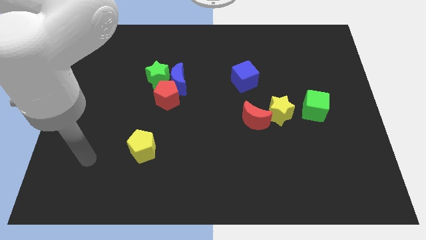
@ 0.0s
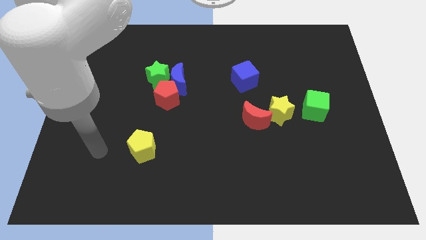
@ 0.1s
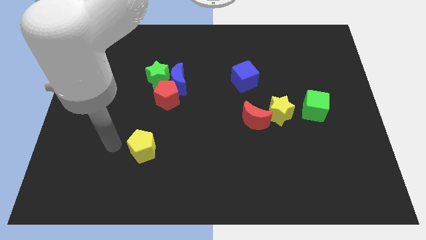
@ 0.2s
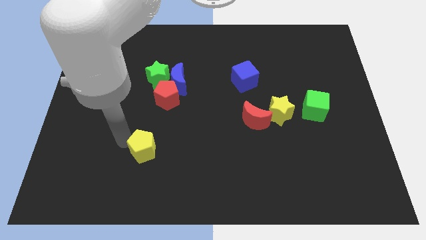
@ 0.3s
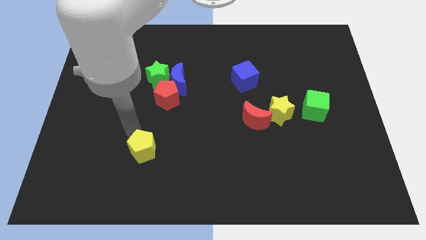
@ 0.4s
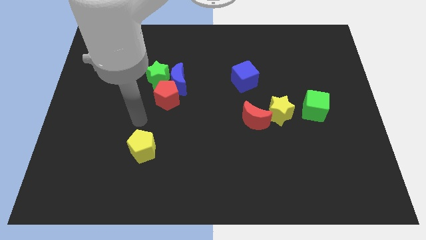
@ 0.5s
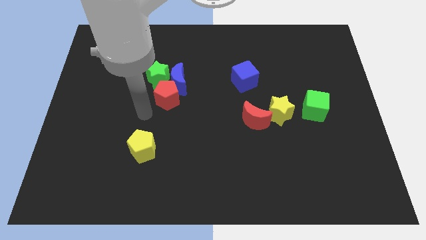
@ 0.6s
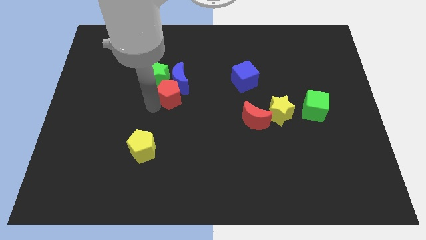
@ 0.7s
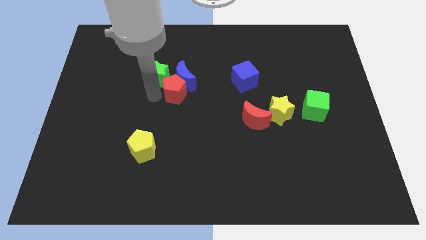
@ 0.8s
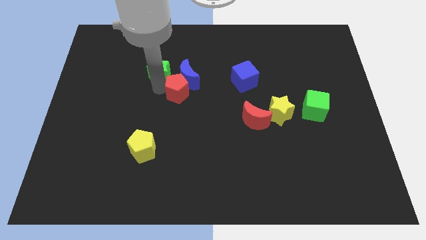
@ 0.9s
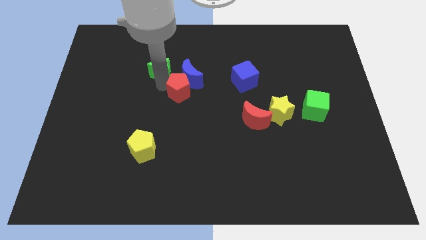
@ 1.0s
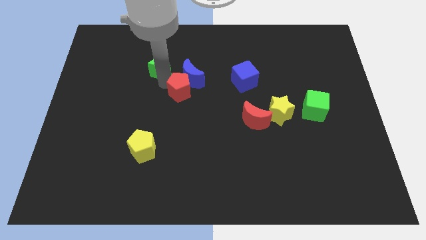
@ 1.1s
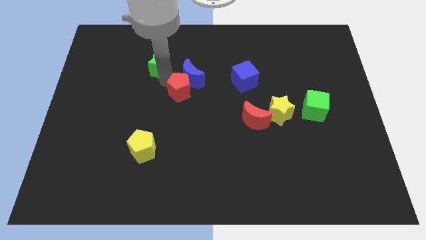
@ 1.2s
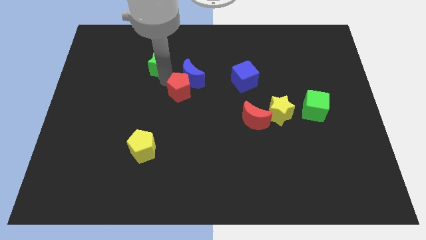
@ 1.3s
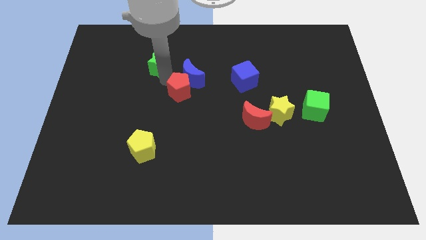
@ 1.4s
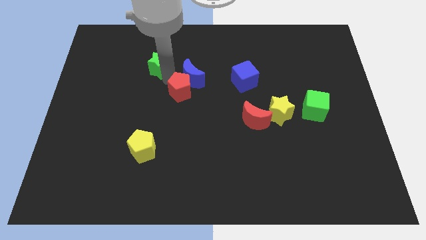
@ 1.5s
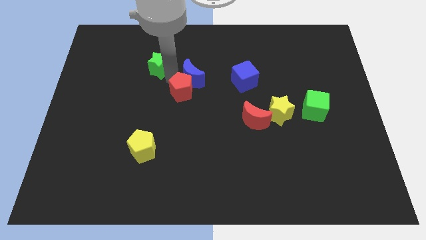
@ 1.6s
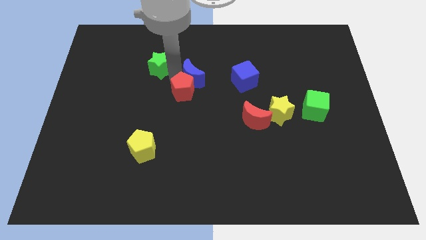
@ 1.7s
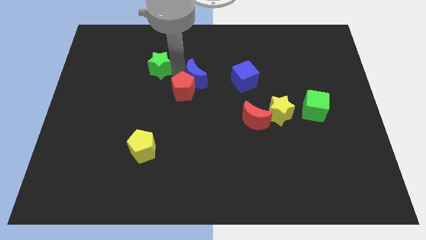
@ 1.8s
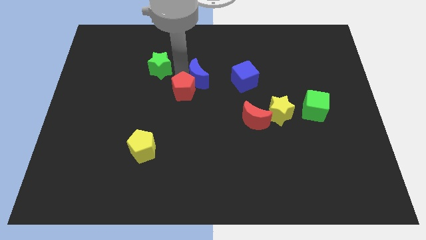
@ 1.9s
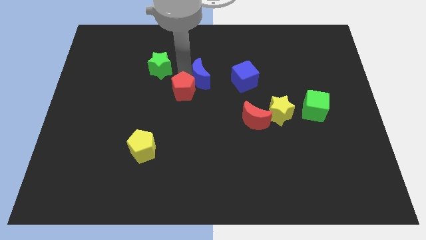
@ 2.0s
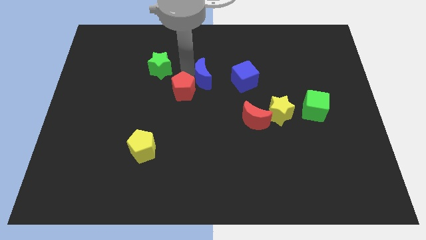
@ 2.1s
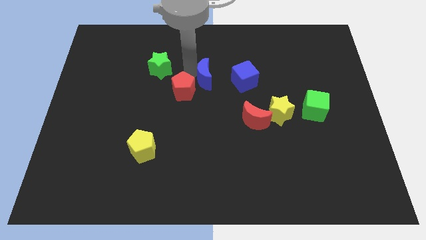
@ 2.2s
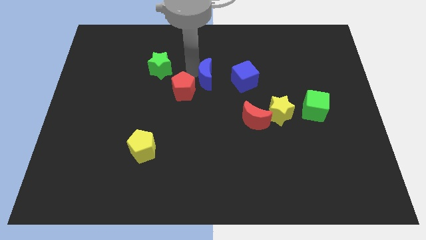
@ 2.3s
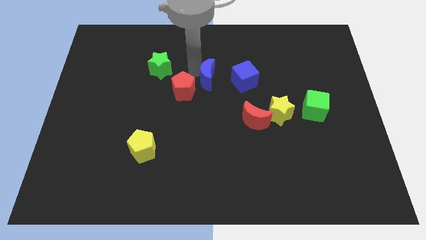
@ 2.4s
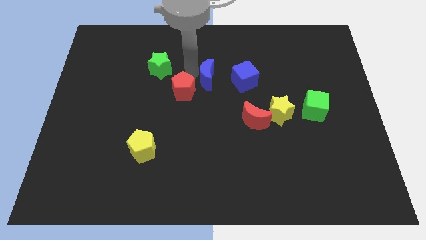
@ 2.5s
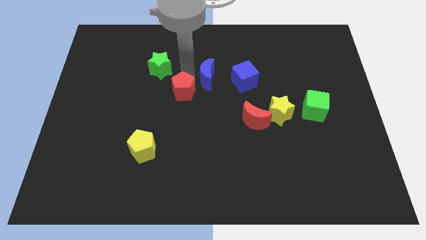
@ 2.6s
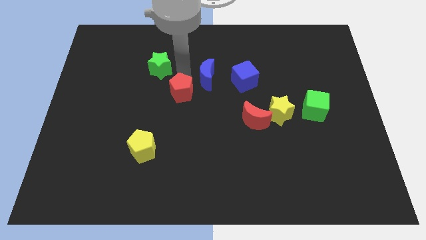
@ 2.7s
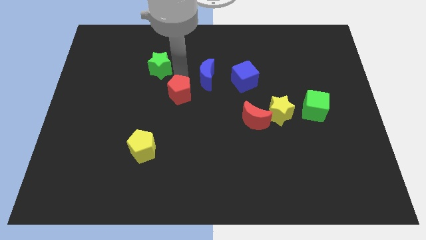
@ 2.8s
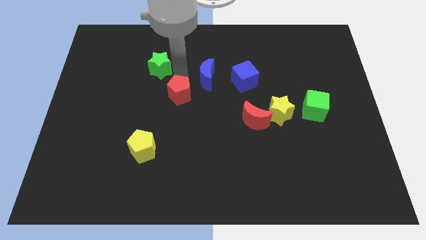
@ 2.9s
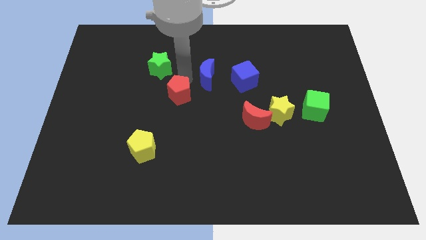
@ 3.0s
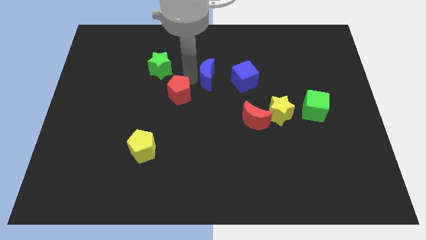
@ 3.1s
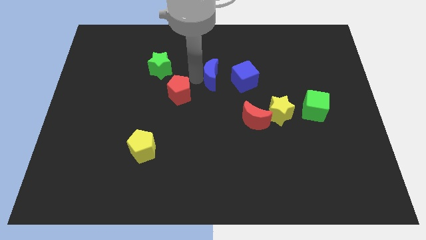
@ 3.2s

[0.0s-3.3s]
move the blue moon away from the green star and red pentagon

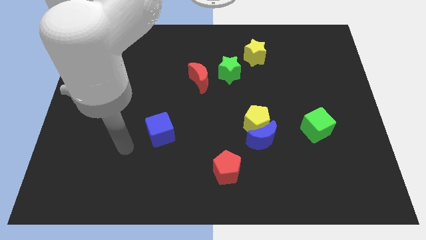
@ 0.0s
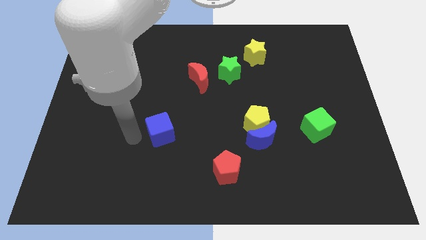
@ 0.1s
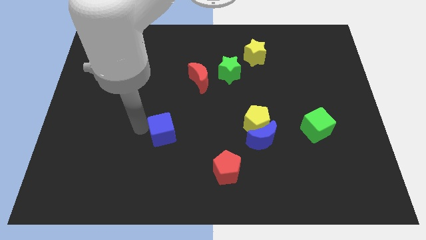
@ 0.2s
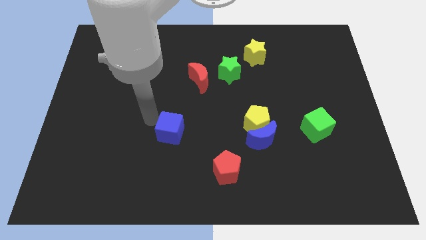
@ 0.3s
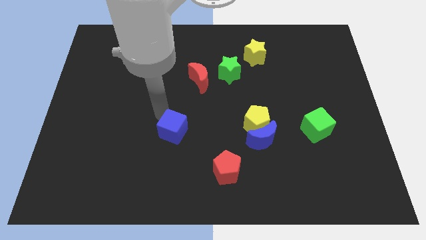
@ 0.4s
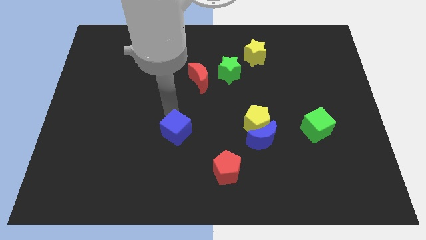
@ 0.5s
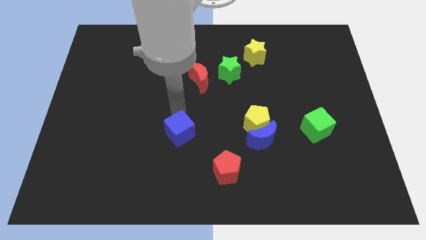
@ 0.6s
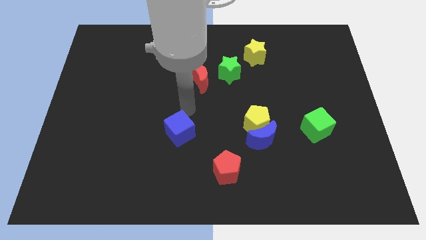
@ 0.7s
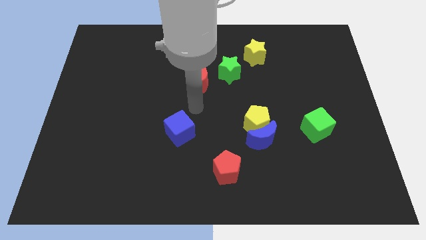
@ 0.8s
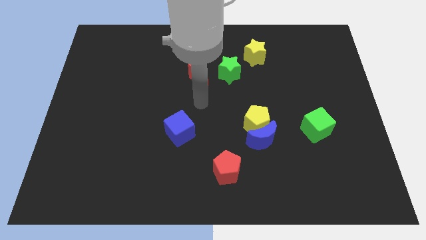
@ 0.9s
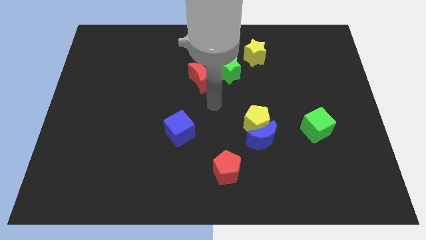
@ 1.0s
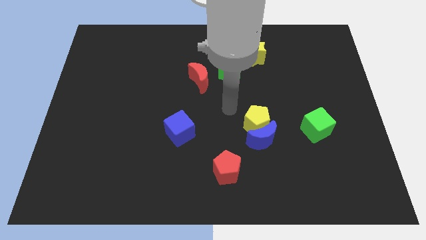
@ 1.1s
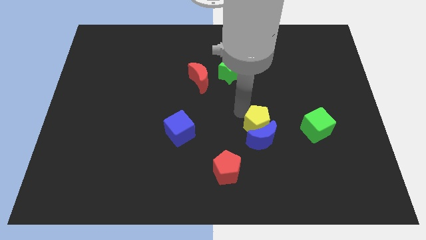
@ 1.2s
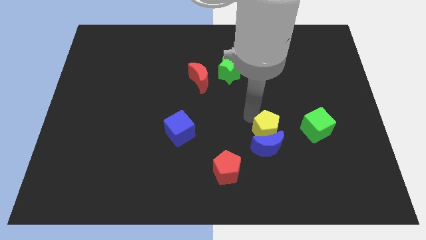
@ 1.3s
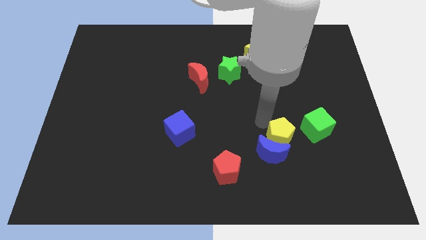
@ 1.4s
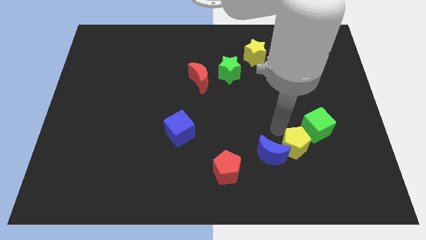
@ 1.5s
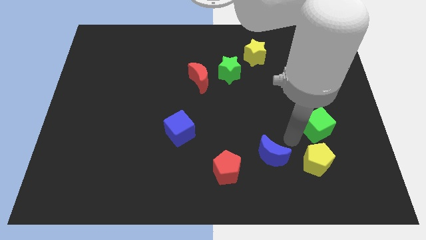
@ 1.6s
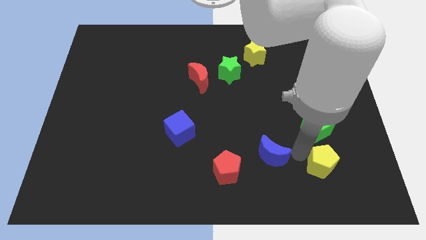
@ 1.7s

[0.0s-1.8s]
move the blue moon away from the yellow pentagon

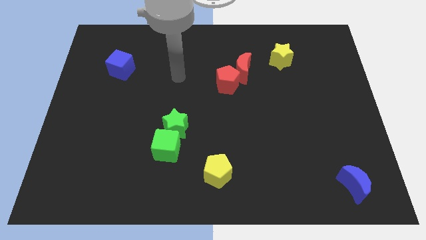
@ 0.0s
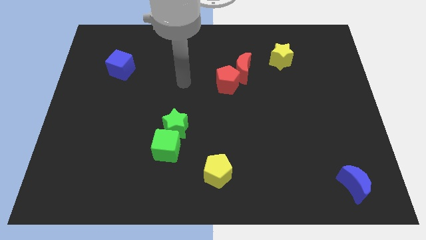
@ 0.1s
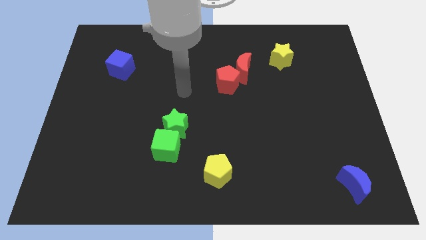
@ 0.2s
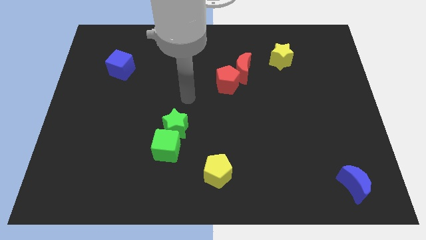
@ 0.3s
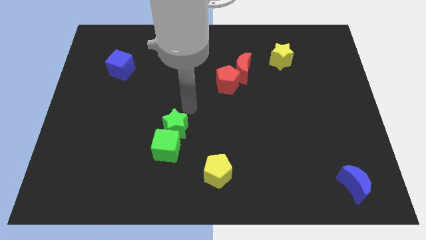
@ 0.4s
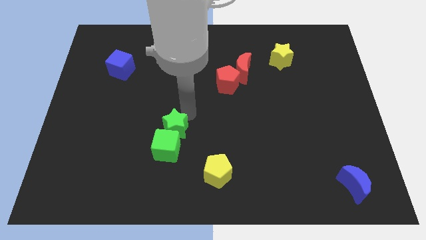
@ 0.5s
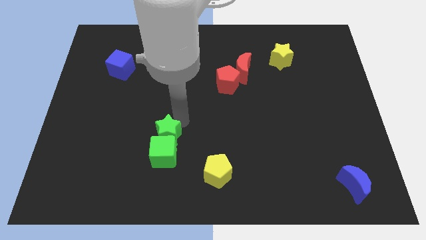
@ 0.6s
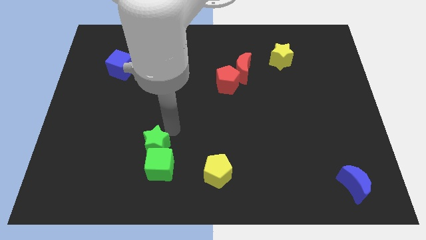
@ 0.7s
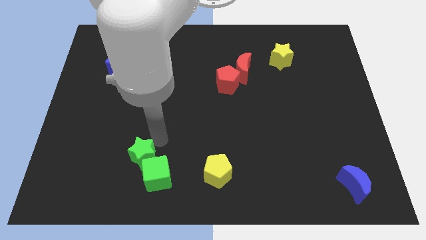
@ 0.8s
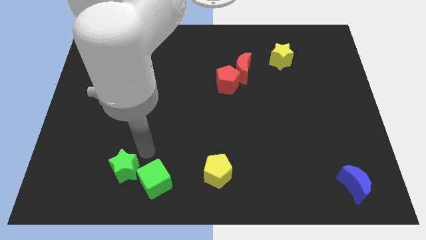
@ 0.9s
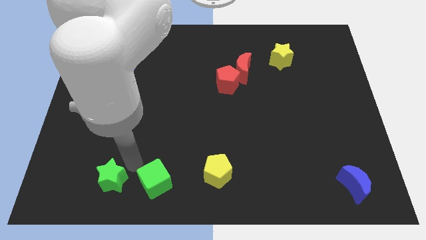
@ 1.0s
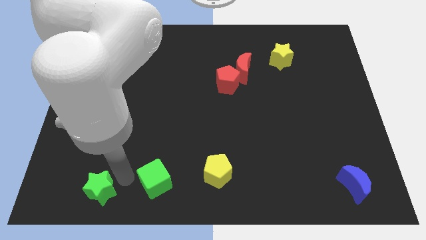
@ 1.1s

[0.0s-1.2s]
pull the green cube apart from the green star

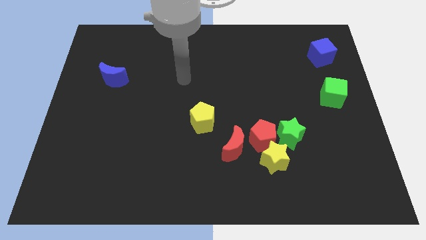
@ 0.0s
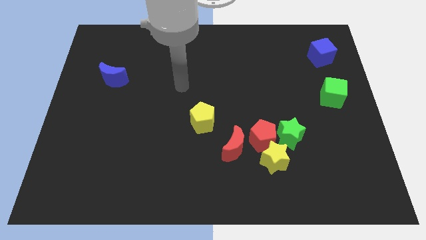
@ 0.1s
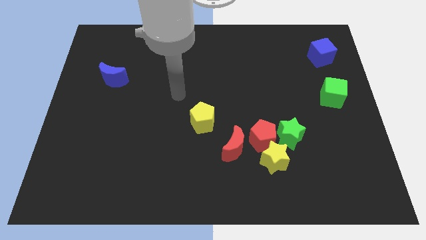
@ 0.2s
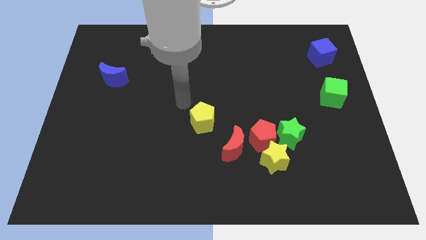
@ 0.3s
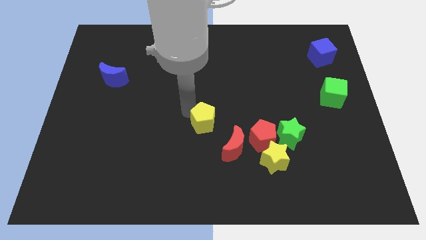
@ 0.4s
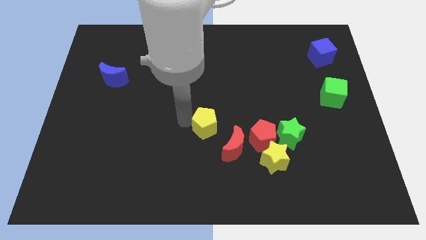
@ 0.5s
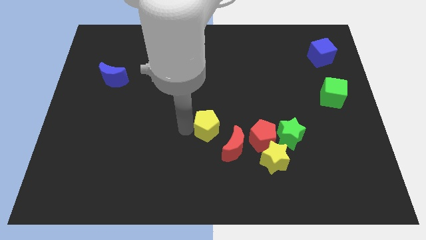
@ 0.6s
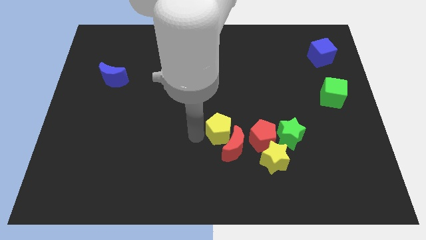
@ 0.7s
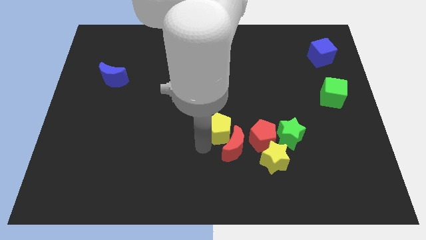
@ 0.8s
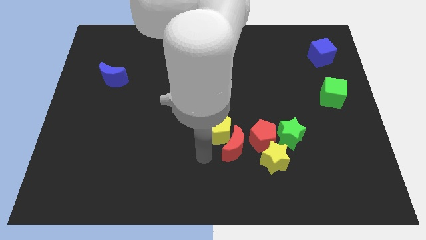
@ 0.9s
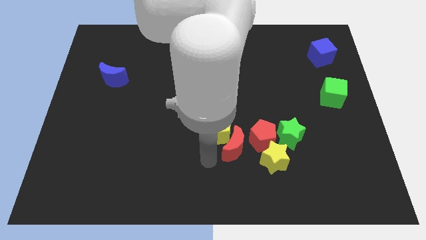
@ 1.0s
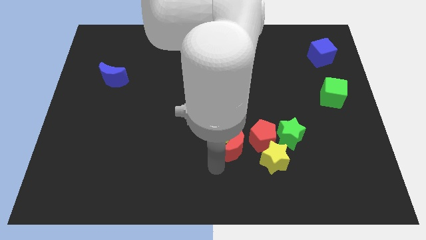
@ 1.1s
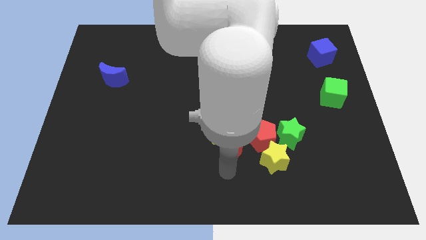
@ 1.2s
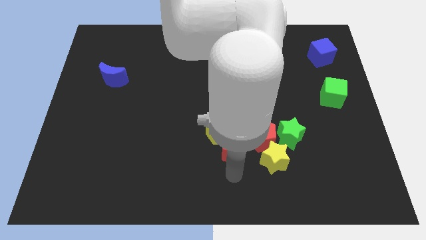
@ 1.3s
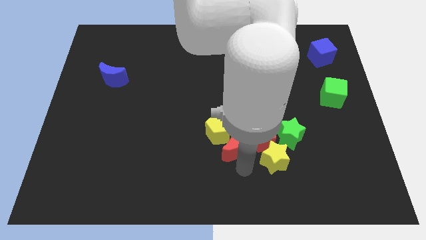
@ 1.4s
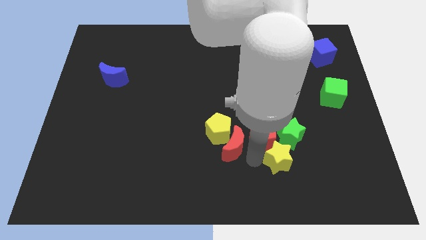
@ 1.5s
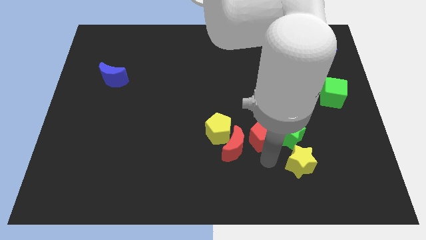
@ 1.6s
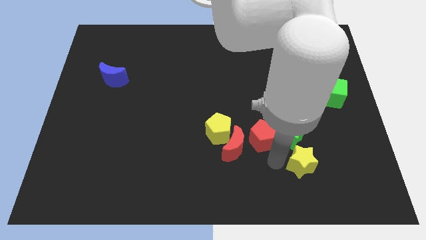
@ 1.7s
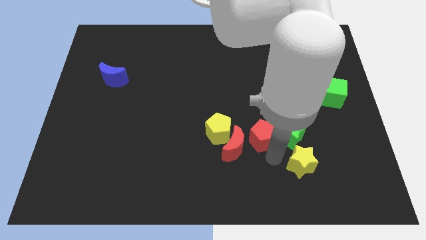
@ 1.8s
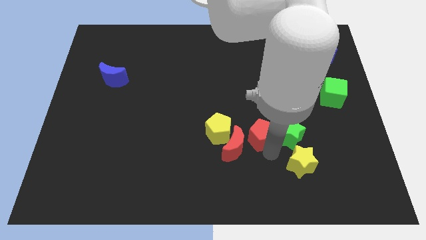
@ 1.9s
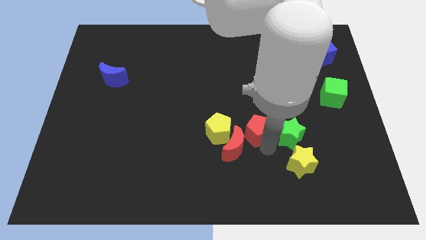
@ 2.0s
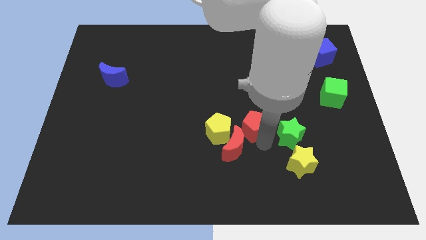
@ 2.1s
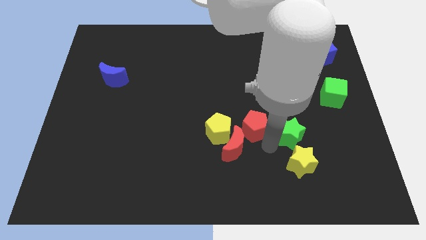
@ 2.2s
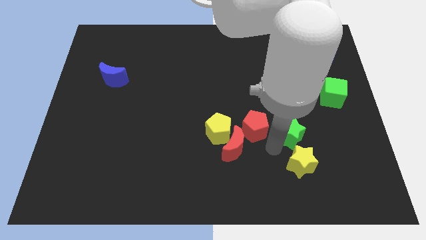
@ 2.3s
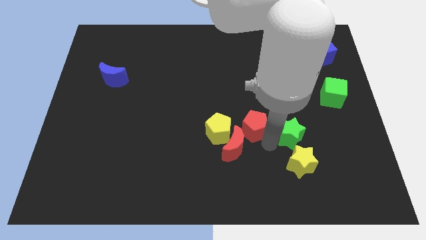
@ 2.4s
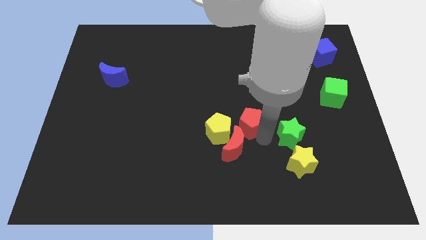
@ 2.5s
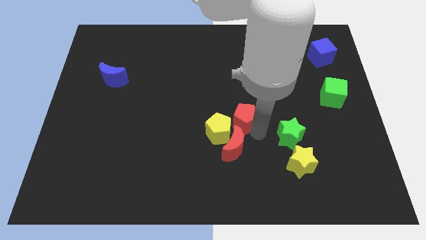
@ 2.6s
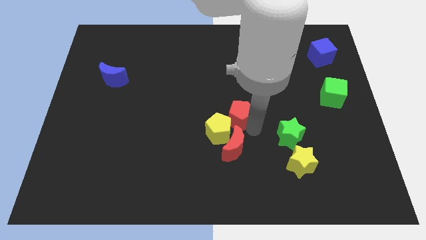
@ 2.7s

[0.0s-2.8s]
pull the red pentagon apart from the clump

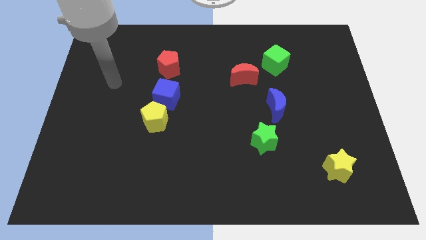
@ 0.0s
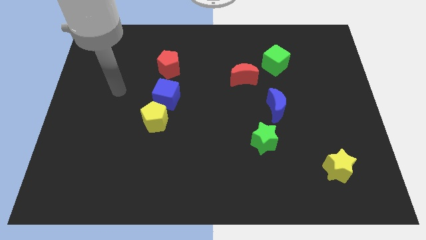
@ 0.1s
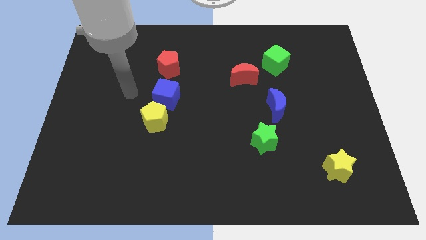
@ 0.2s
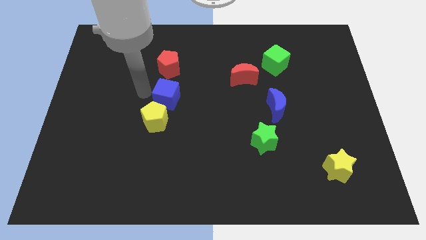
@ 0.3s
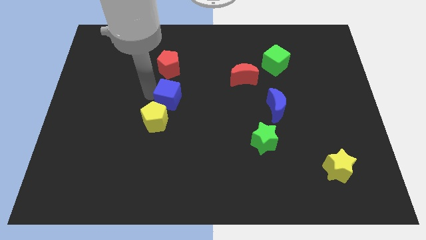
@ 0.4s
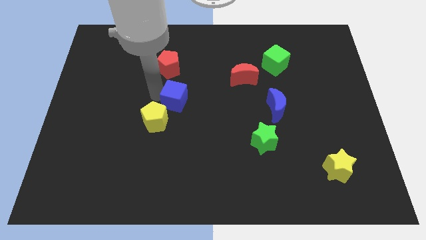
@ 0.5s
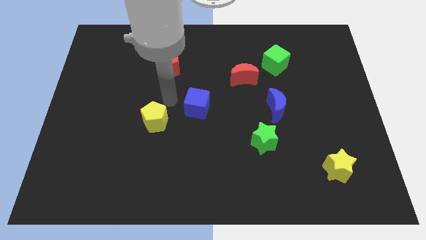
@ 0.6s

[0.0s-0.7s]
separate the yellow pentagon from the blue cube
